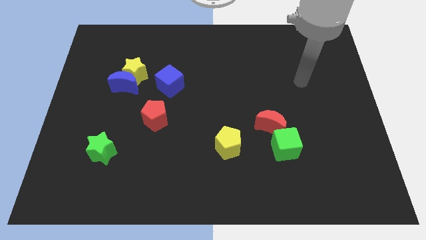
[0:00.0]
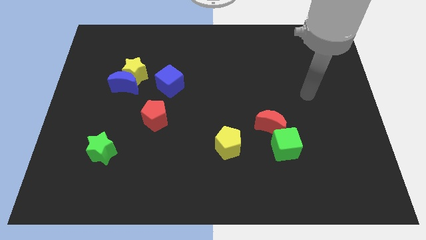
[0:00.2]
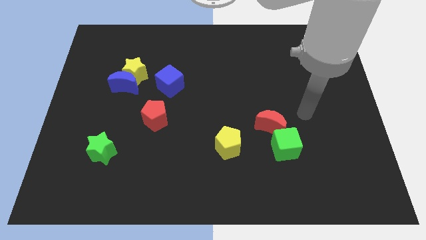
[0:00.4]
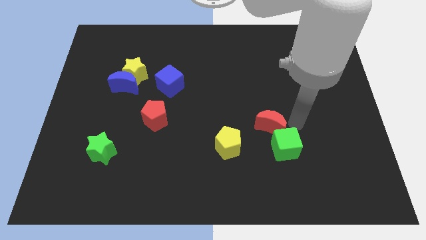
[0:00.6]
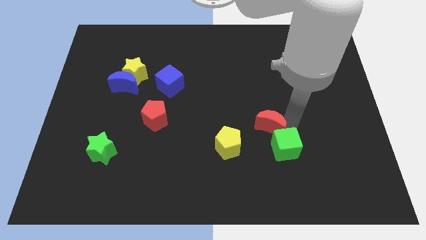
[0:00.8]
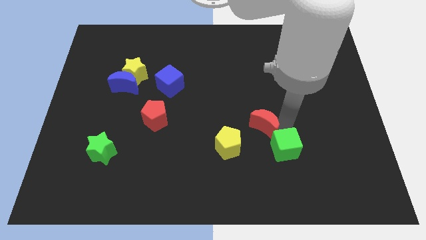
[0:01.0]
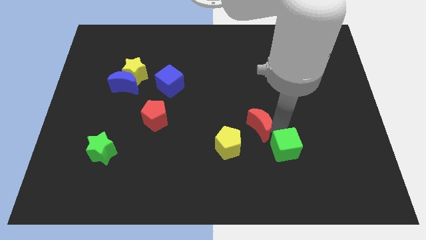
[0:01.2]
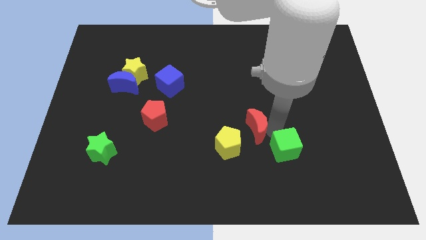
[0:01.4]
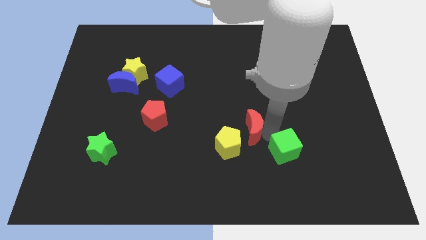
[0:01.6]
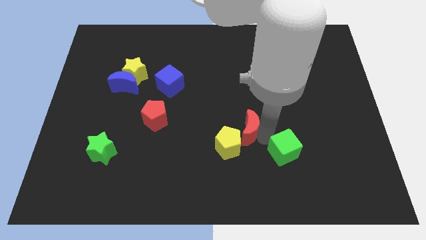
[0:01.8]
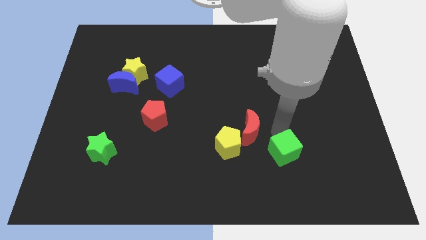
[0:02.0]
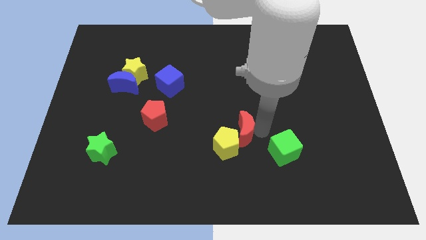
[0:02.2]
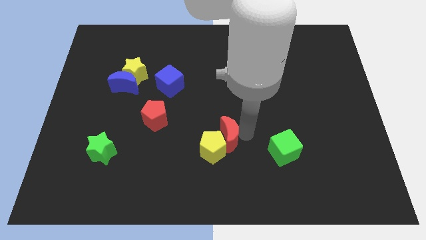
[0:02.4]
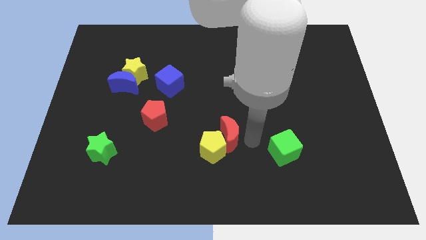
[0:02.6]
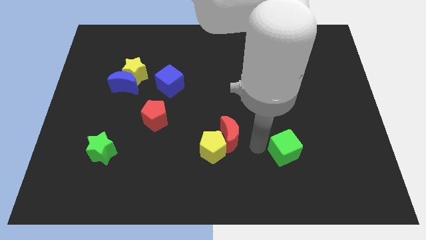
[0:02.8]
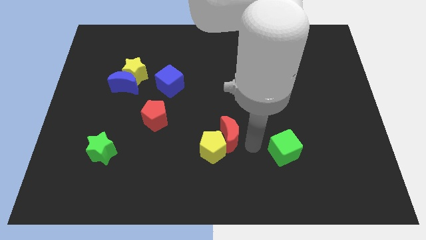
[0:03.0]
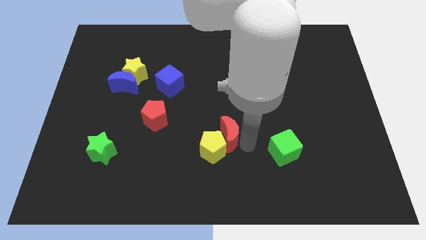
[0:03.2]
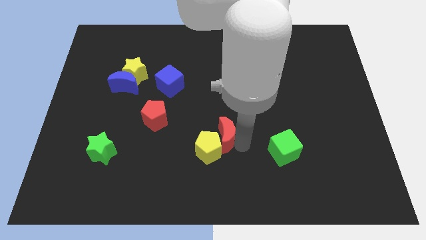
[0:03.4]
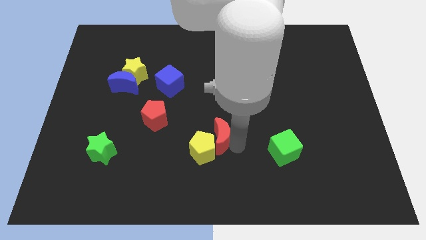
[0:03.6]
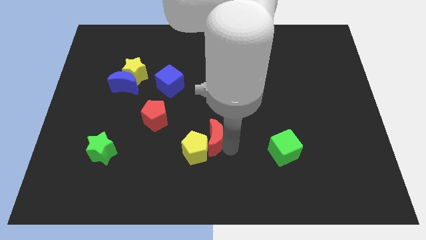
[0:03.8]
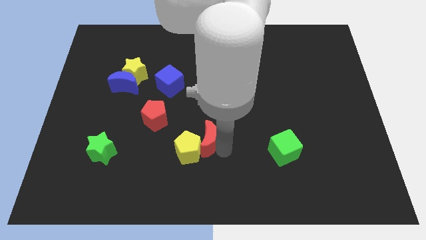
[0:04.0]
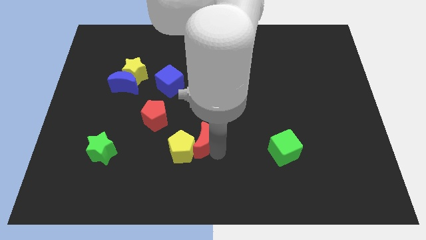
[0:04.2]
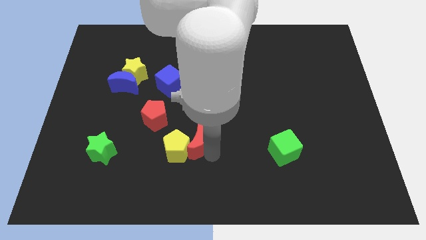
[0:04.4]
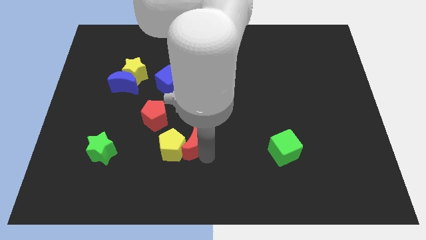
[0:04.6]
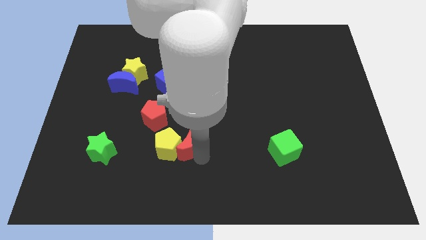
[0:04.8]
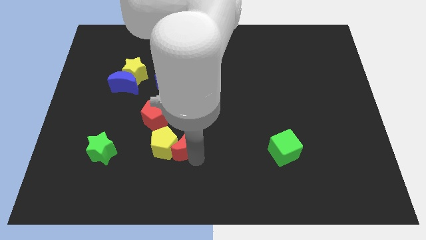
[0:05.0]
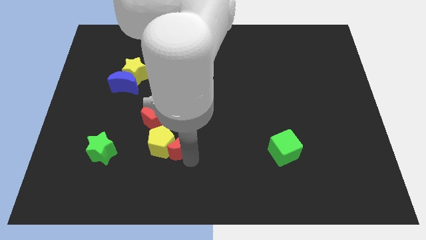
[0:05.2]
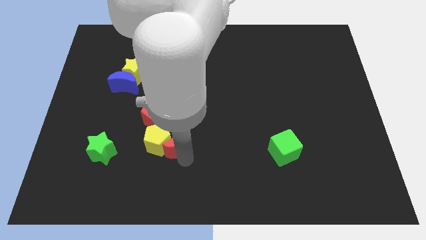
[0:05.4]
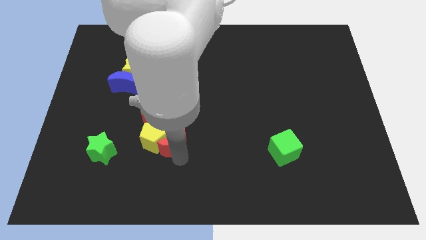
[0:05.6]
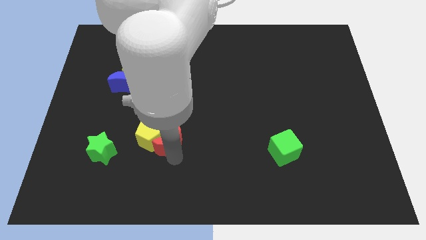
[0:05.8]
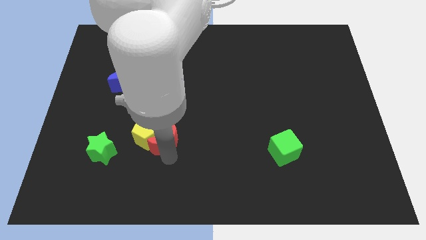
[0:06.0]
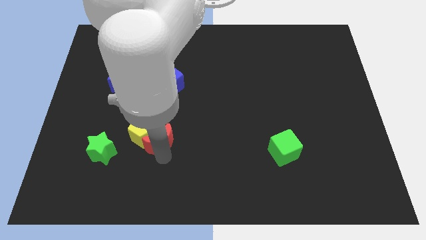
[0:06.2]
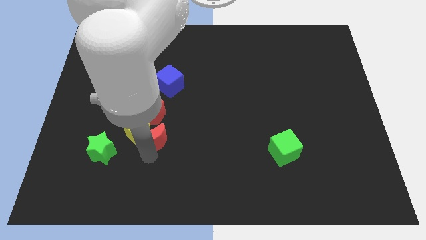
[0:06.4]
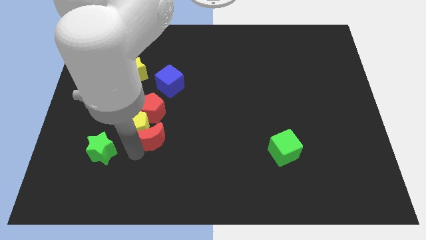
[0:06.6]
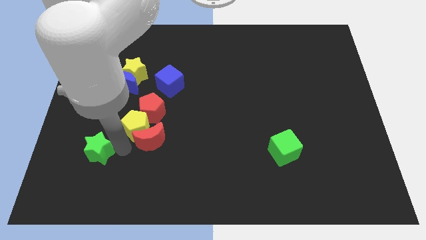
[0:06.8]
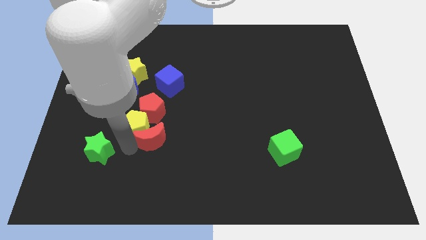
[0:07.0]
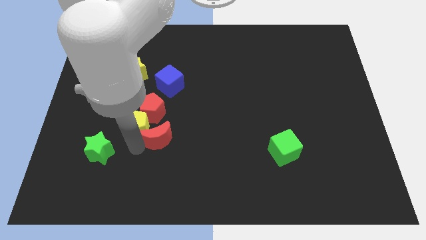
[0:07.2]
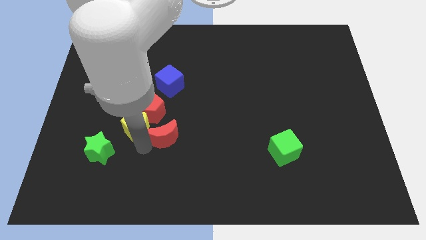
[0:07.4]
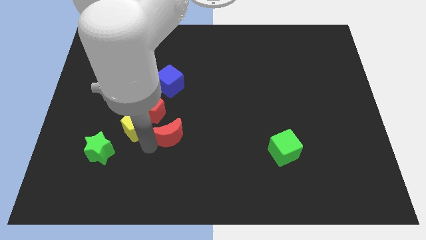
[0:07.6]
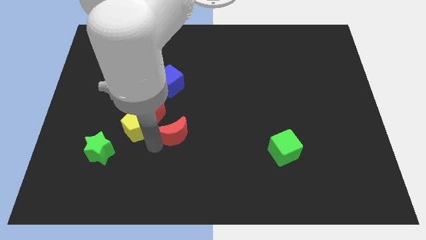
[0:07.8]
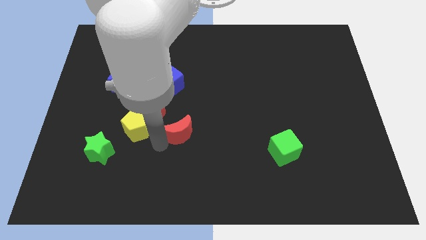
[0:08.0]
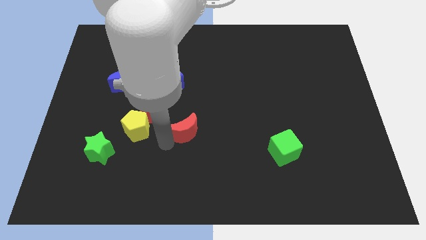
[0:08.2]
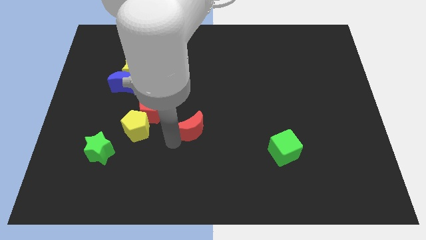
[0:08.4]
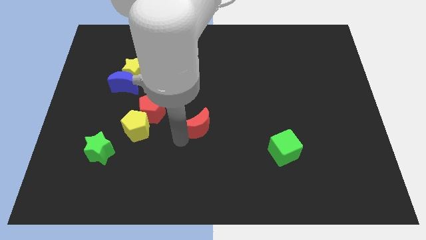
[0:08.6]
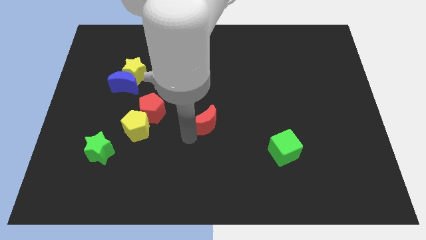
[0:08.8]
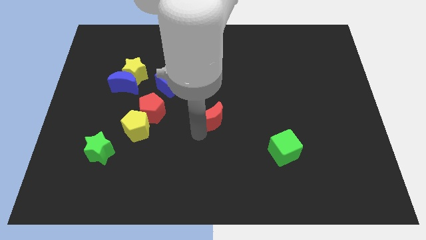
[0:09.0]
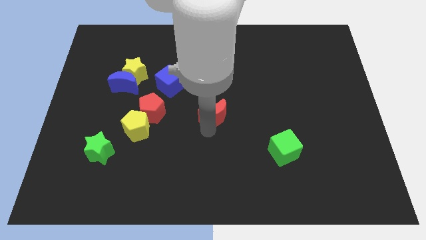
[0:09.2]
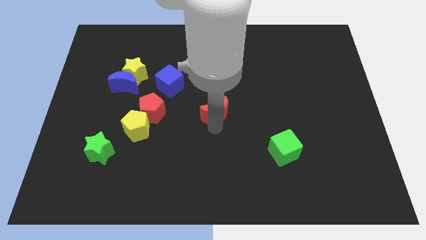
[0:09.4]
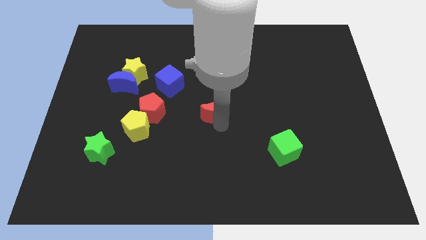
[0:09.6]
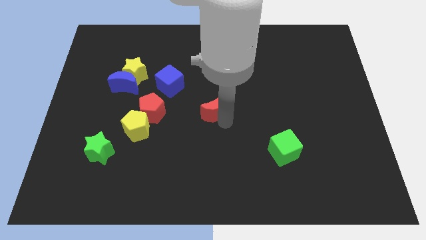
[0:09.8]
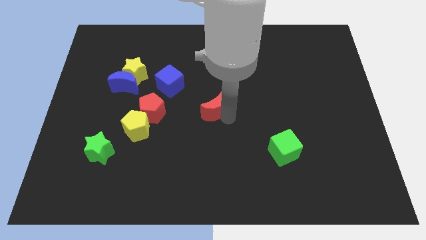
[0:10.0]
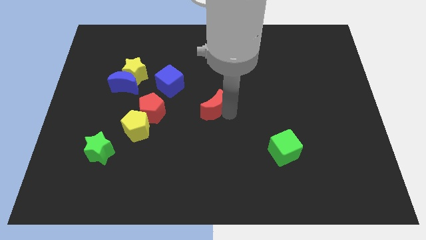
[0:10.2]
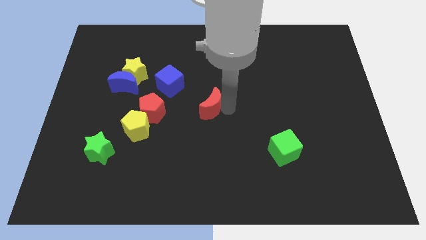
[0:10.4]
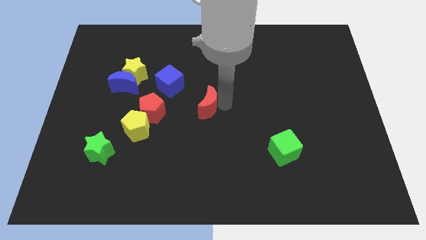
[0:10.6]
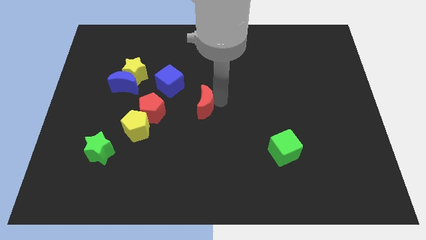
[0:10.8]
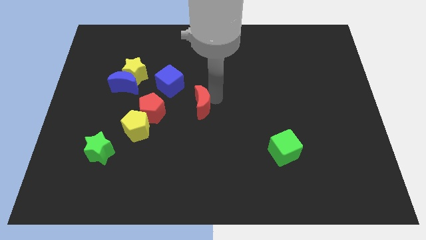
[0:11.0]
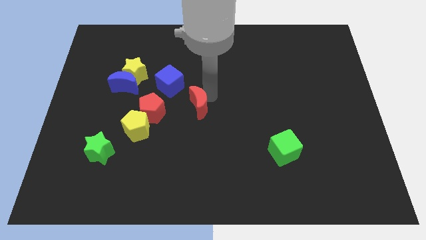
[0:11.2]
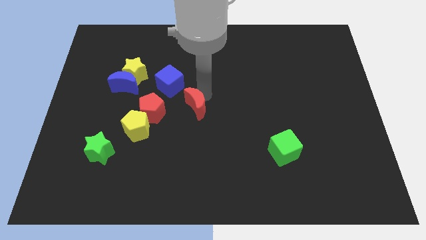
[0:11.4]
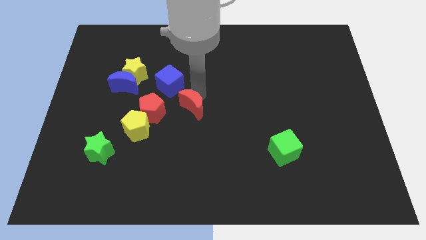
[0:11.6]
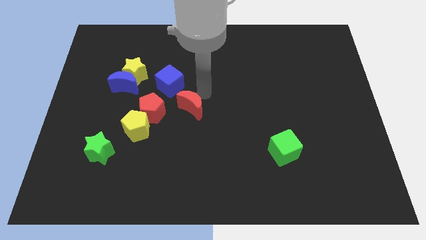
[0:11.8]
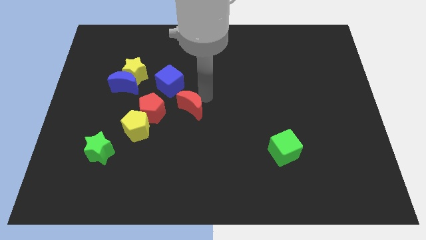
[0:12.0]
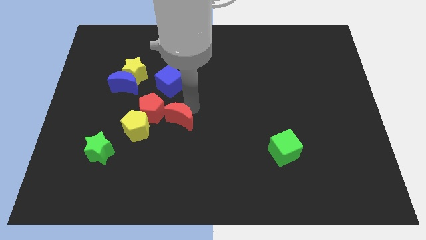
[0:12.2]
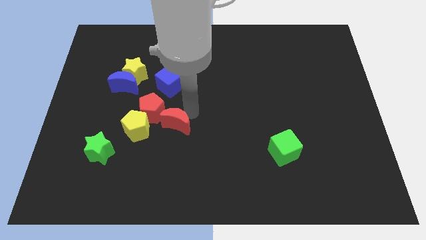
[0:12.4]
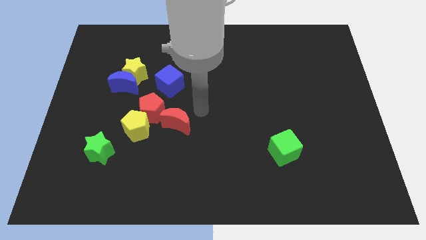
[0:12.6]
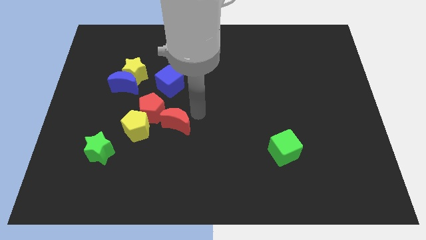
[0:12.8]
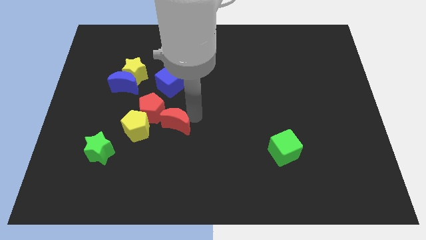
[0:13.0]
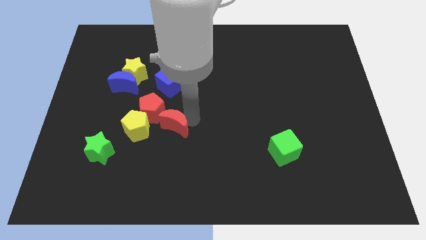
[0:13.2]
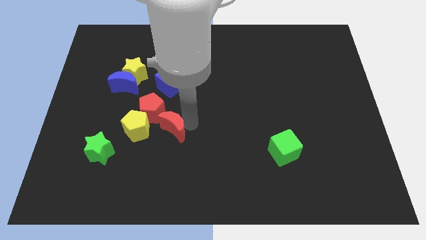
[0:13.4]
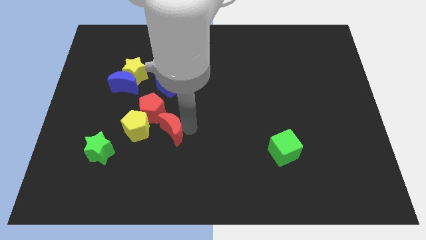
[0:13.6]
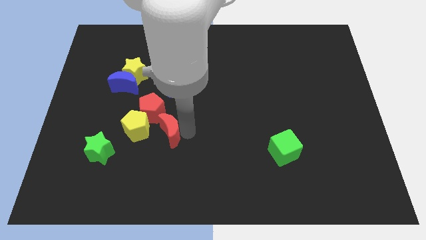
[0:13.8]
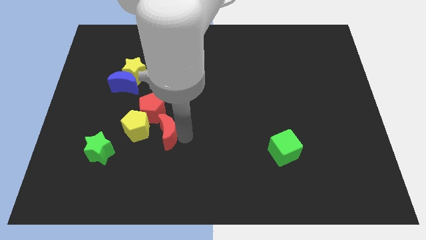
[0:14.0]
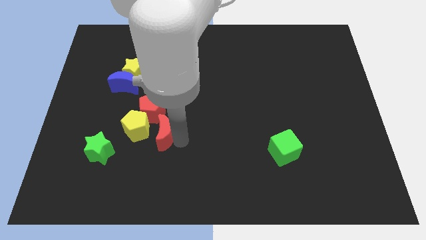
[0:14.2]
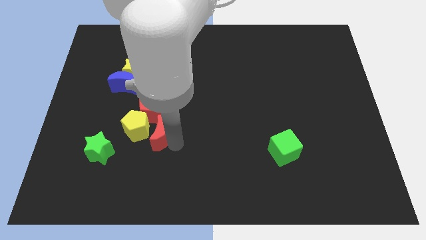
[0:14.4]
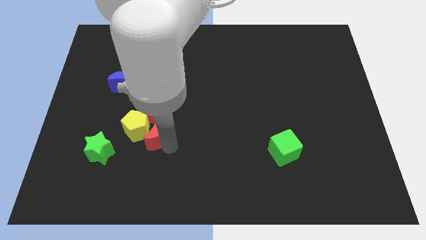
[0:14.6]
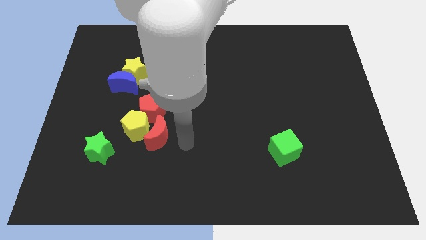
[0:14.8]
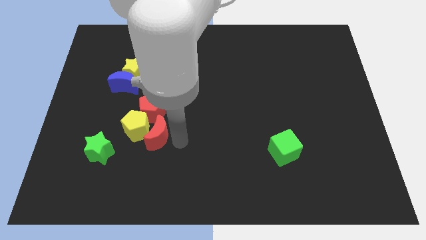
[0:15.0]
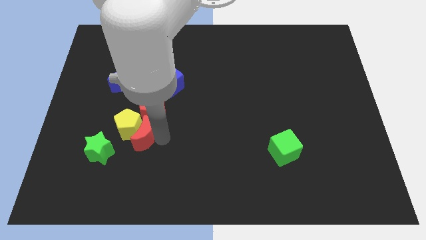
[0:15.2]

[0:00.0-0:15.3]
put the red moon to the bottom left side of the red pentagon
